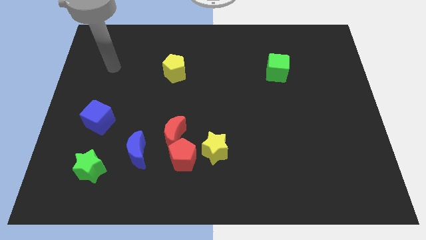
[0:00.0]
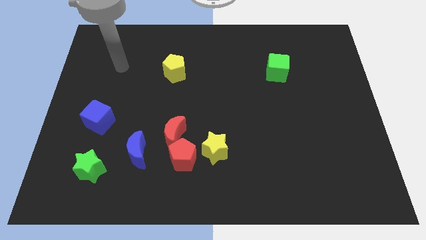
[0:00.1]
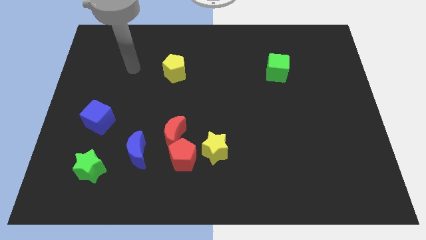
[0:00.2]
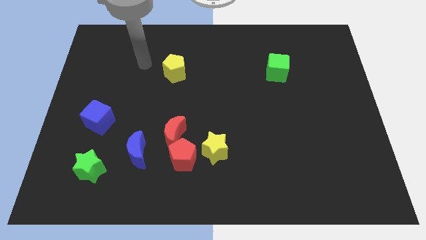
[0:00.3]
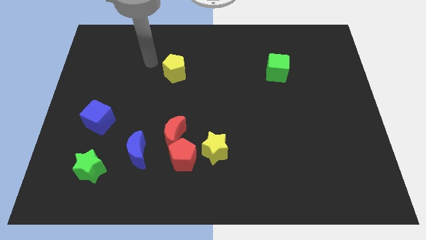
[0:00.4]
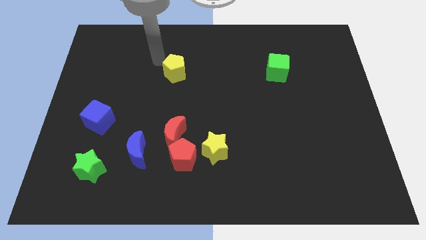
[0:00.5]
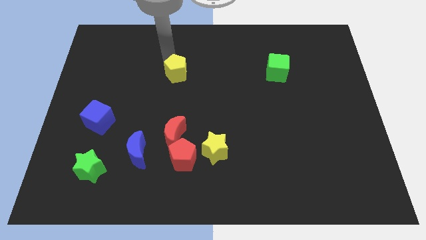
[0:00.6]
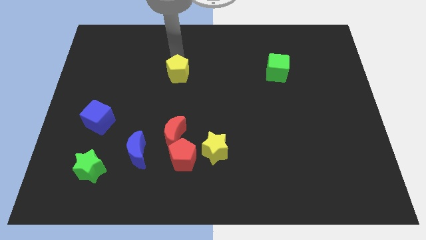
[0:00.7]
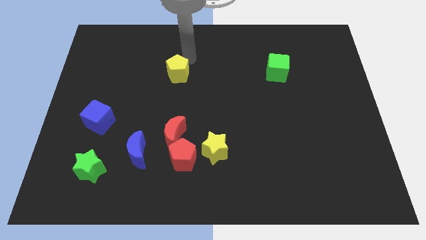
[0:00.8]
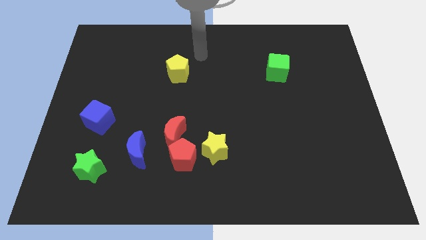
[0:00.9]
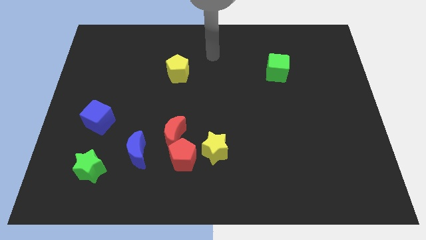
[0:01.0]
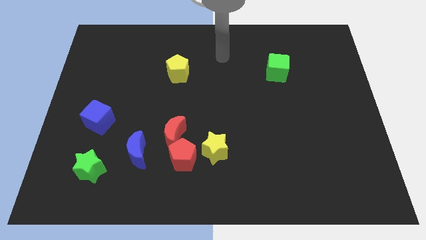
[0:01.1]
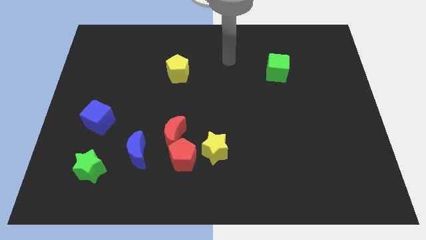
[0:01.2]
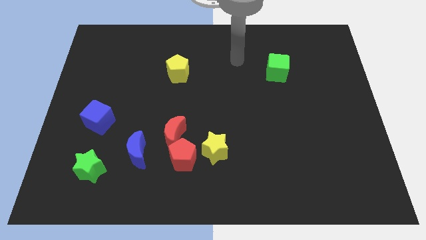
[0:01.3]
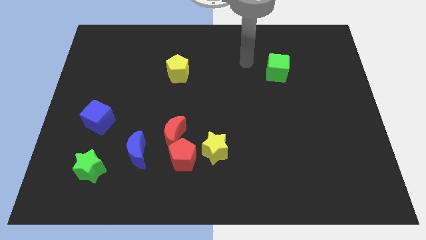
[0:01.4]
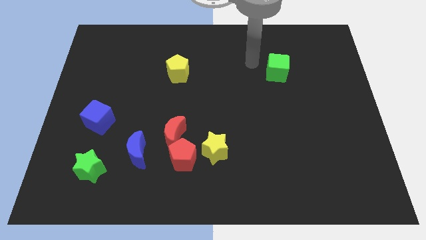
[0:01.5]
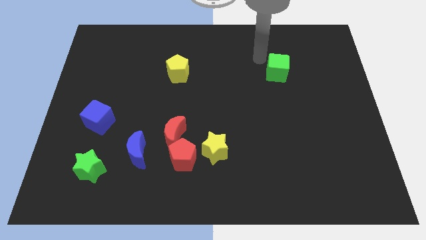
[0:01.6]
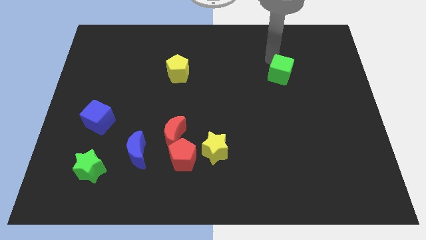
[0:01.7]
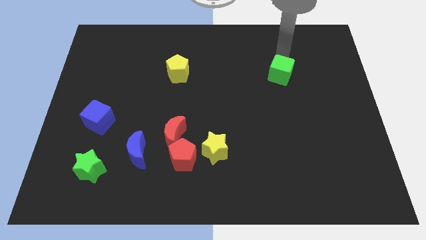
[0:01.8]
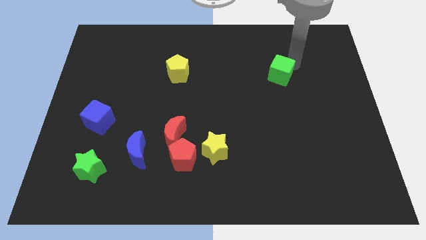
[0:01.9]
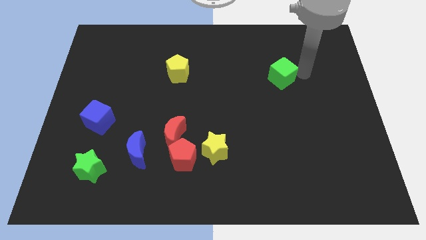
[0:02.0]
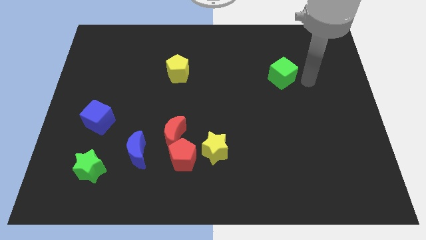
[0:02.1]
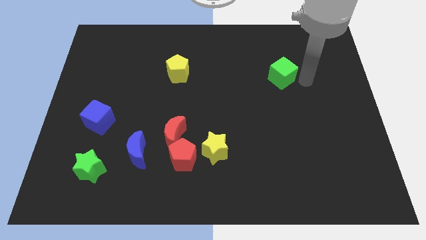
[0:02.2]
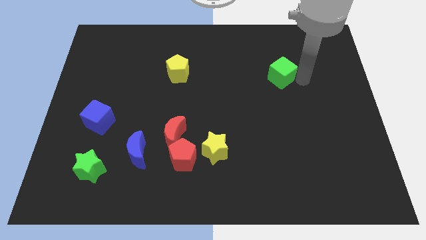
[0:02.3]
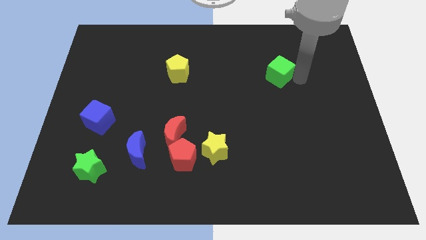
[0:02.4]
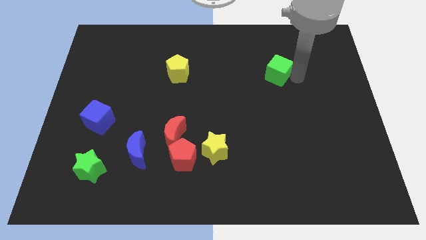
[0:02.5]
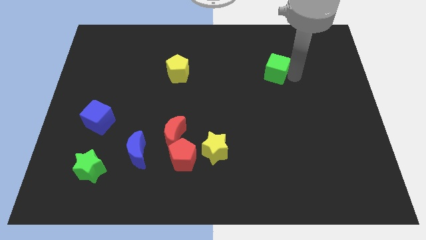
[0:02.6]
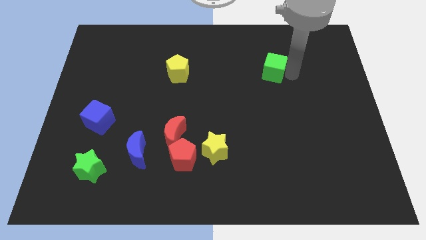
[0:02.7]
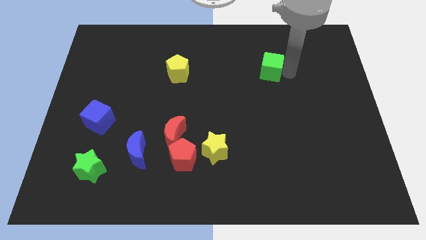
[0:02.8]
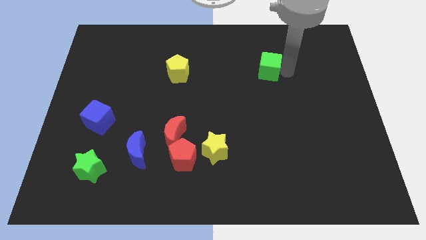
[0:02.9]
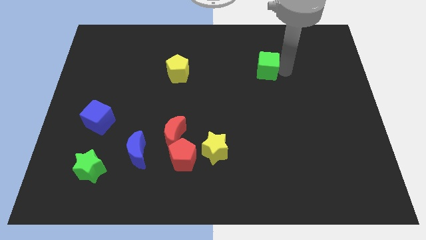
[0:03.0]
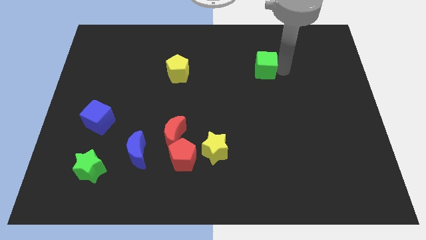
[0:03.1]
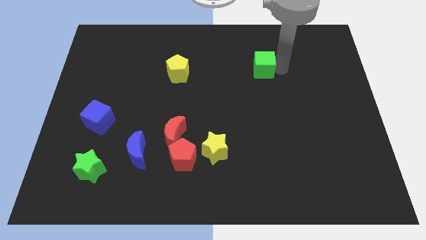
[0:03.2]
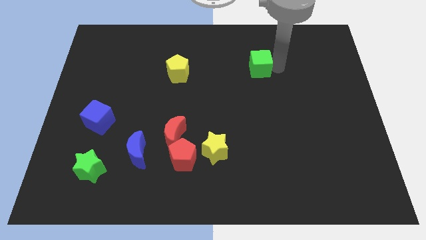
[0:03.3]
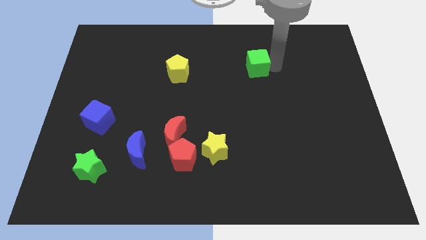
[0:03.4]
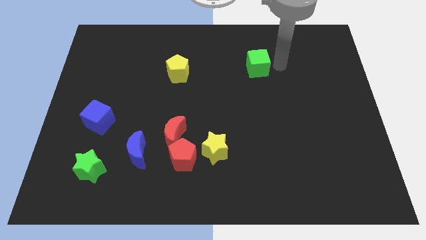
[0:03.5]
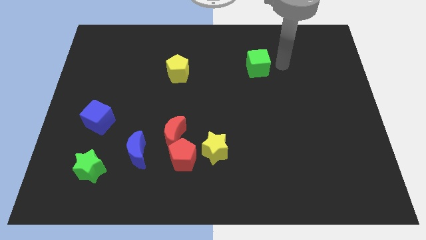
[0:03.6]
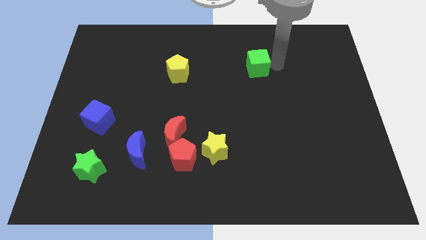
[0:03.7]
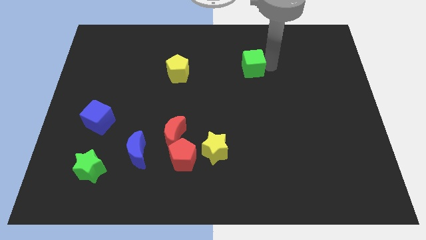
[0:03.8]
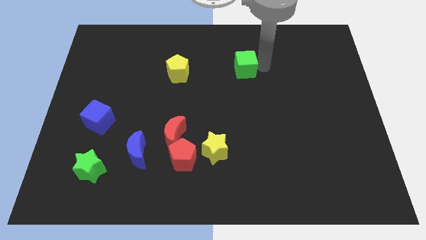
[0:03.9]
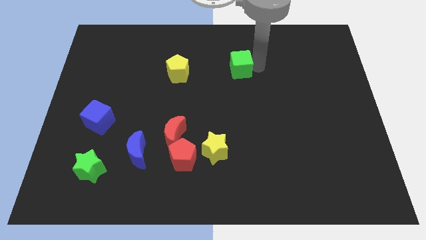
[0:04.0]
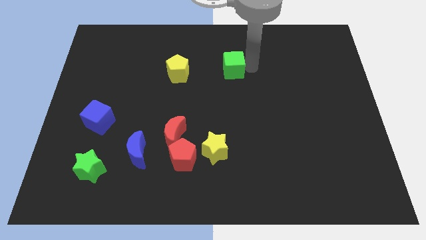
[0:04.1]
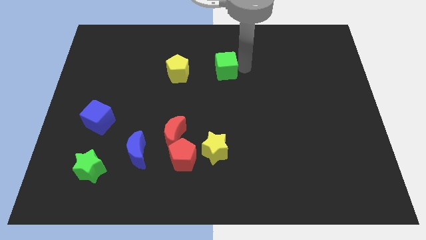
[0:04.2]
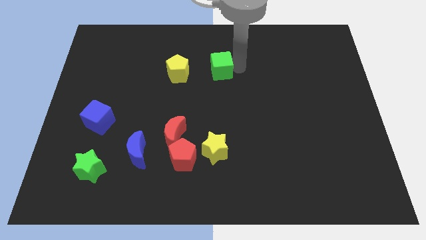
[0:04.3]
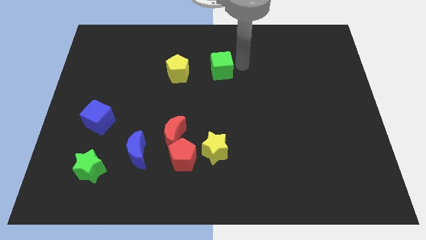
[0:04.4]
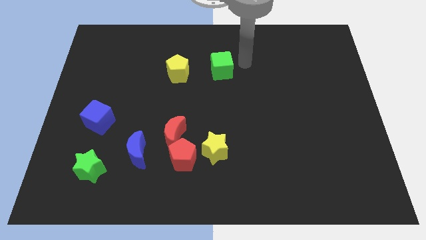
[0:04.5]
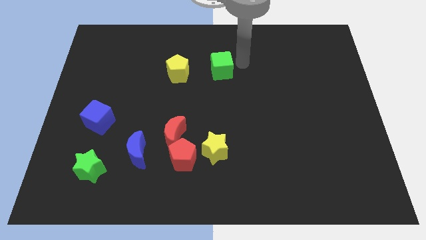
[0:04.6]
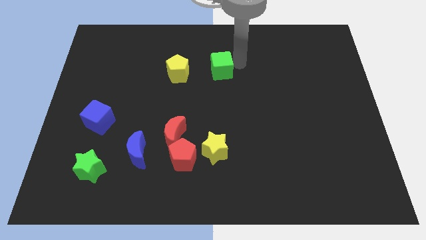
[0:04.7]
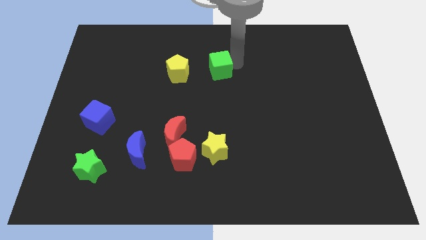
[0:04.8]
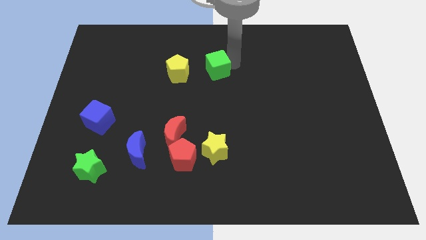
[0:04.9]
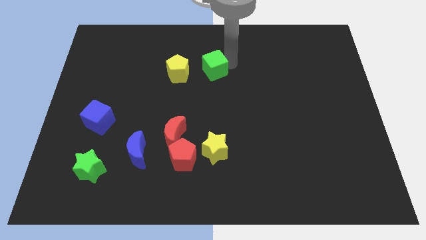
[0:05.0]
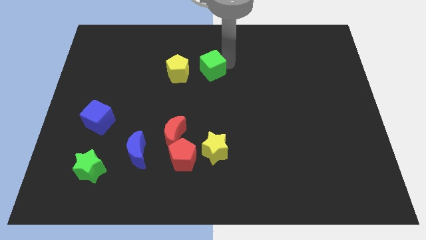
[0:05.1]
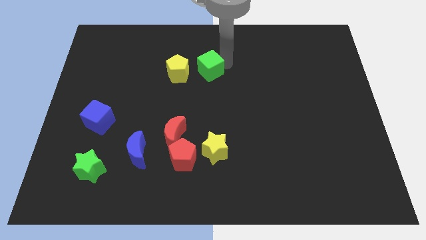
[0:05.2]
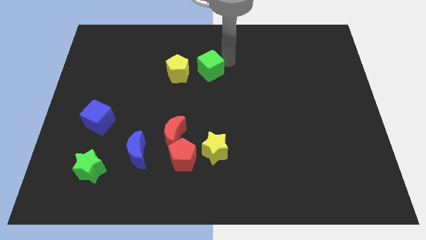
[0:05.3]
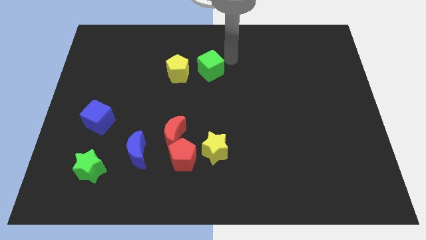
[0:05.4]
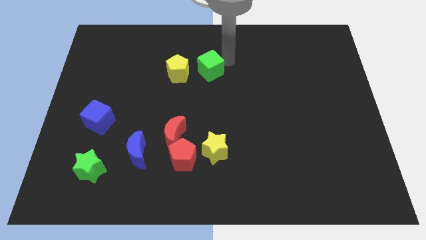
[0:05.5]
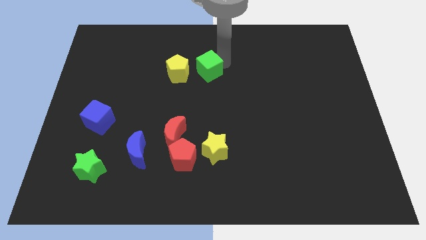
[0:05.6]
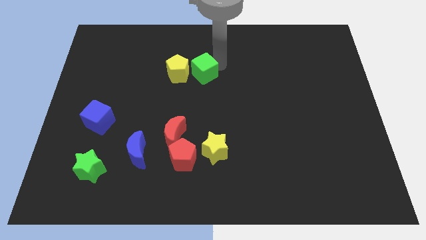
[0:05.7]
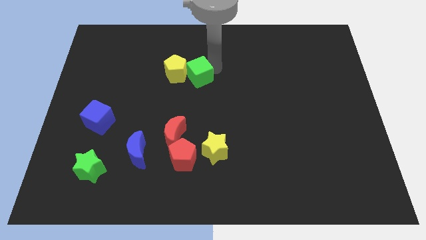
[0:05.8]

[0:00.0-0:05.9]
slide the green cube to the yellow pentagon

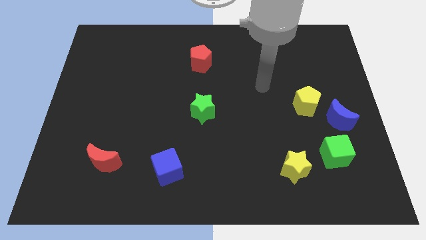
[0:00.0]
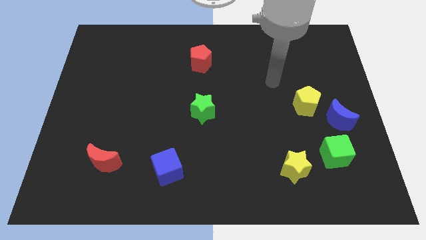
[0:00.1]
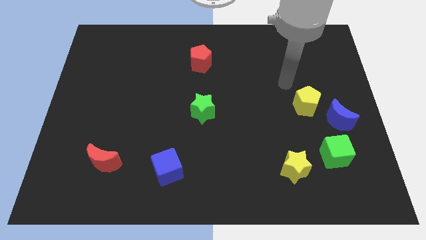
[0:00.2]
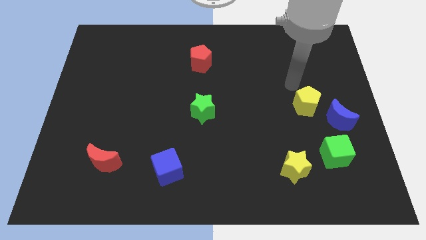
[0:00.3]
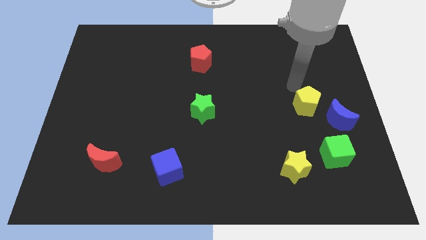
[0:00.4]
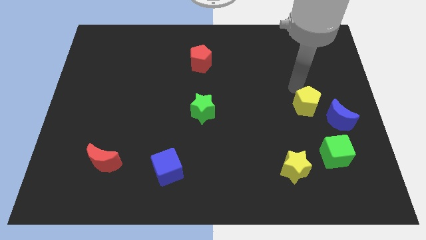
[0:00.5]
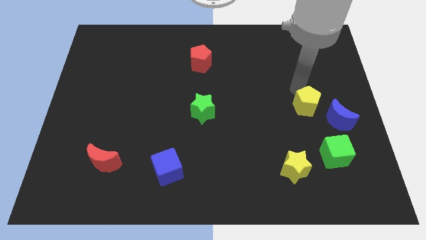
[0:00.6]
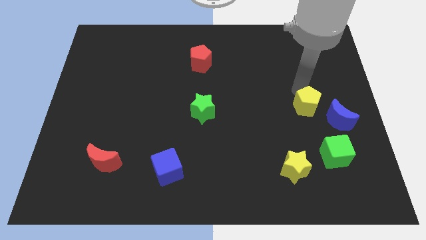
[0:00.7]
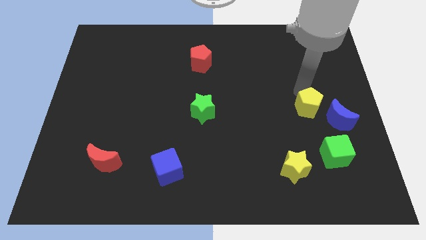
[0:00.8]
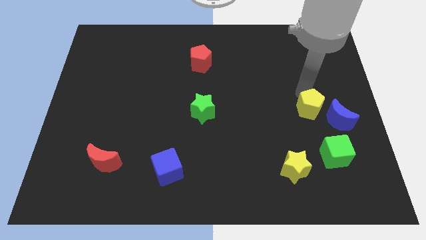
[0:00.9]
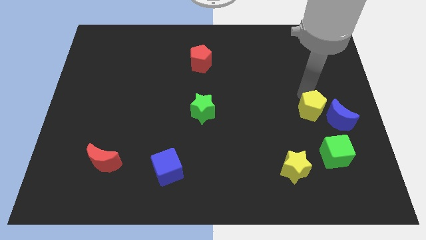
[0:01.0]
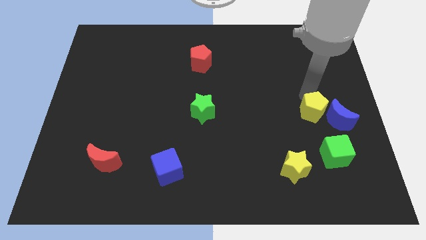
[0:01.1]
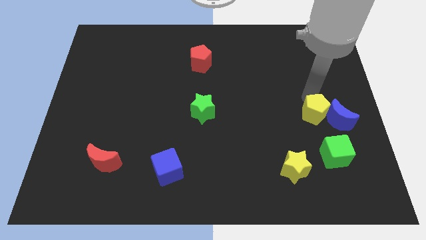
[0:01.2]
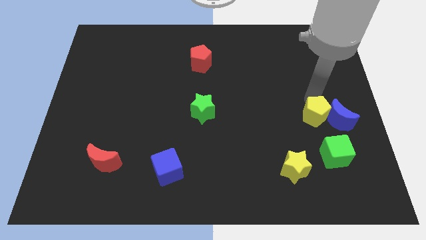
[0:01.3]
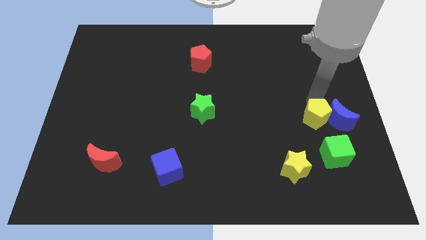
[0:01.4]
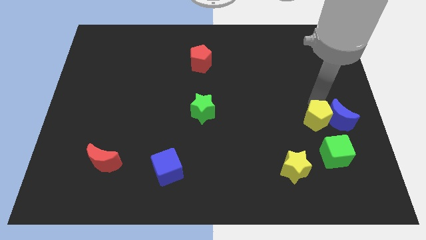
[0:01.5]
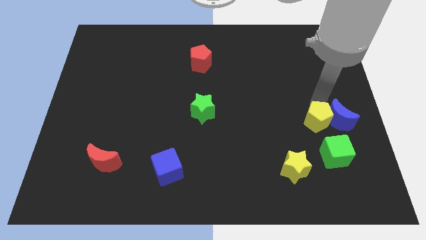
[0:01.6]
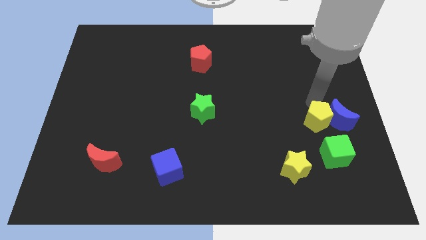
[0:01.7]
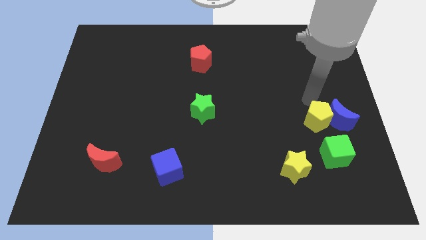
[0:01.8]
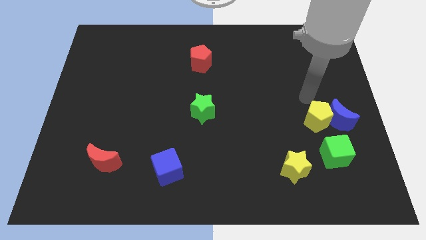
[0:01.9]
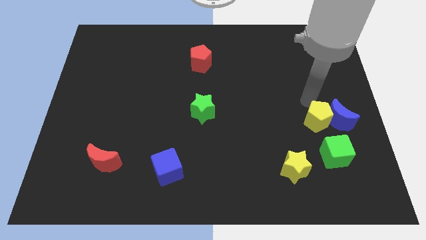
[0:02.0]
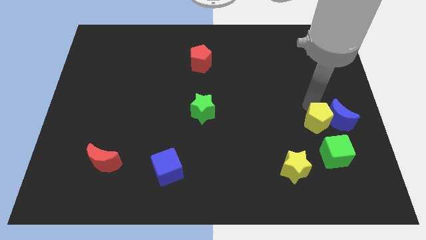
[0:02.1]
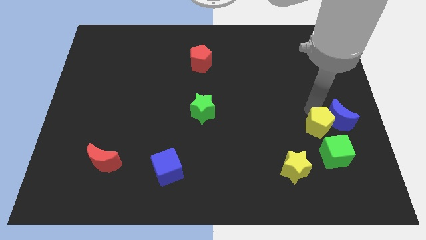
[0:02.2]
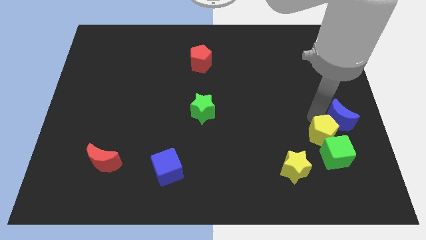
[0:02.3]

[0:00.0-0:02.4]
push the yellow pentagon close to the green cube
